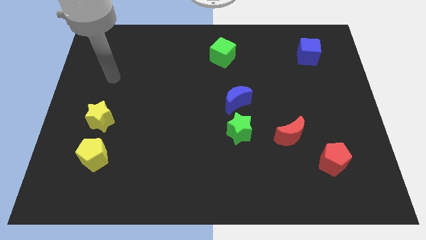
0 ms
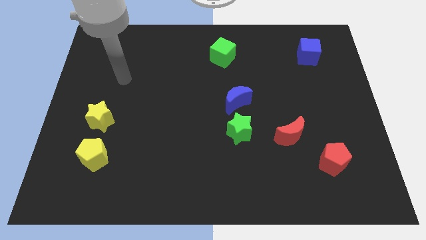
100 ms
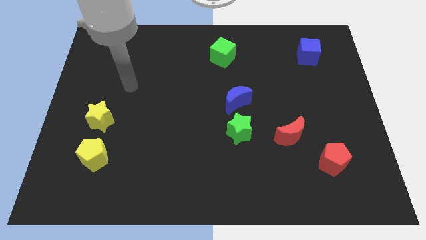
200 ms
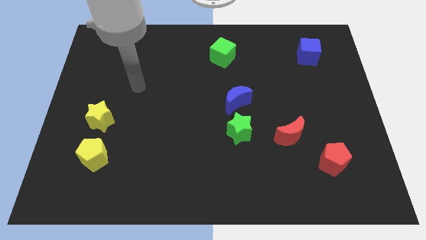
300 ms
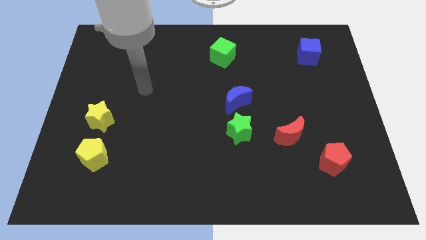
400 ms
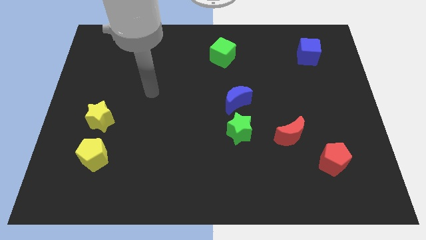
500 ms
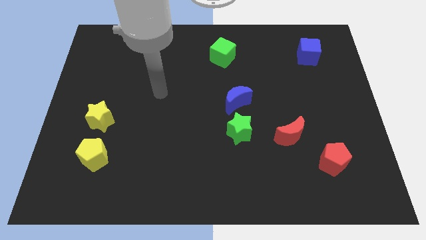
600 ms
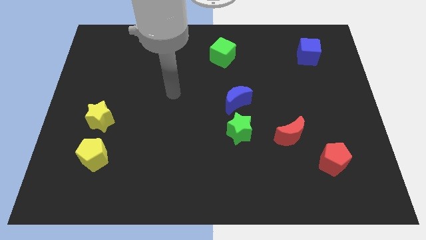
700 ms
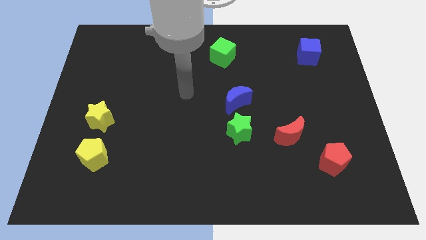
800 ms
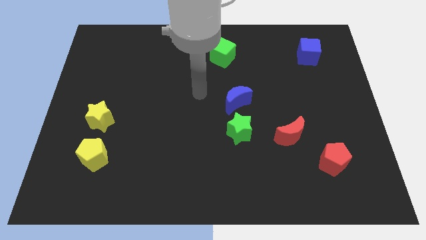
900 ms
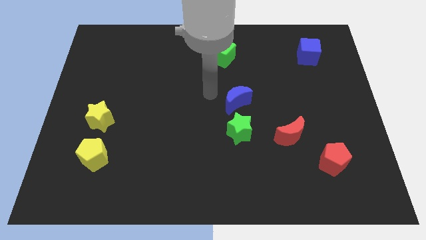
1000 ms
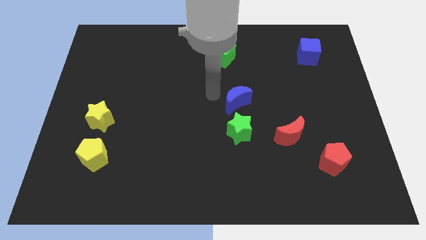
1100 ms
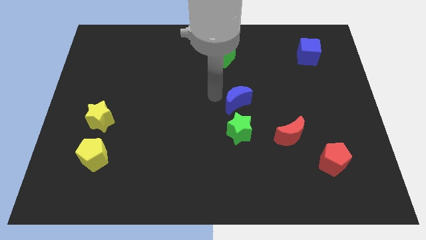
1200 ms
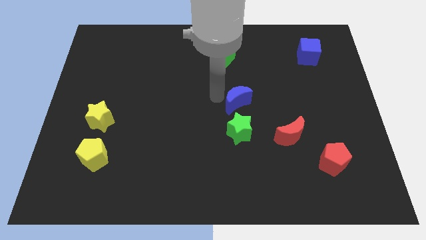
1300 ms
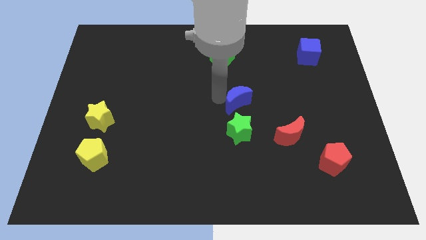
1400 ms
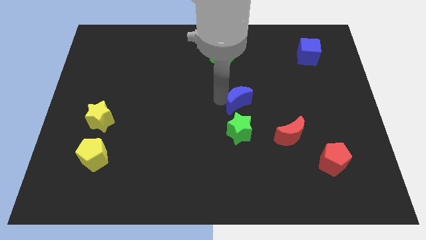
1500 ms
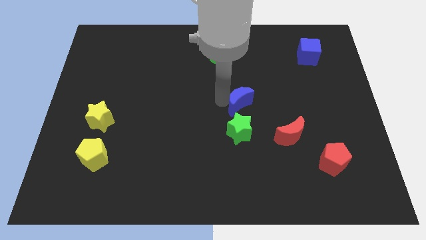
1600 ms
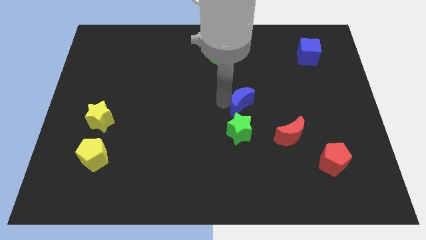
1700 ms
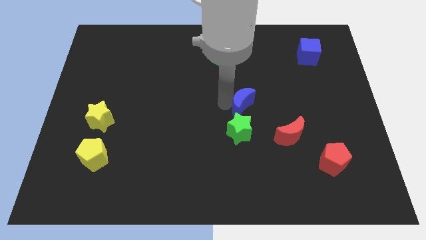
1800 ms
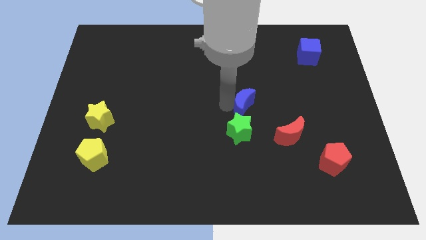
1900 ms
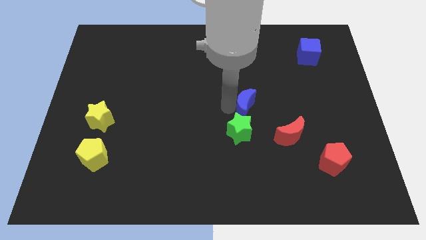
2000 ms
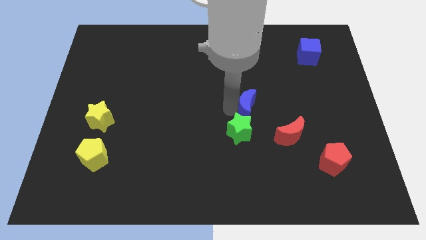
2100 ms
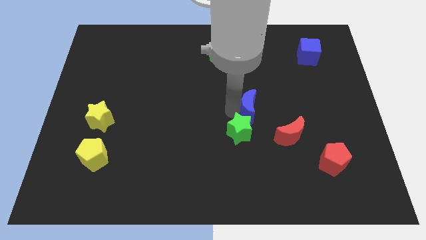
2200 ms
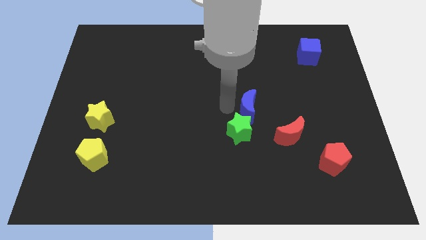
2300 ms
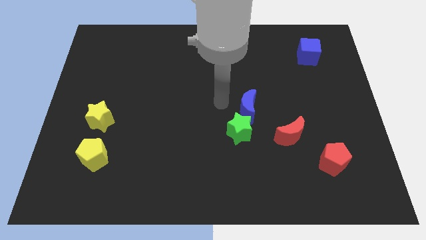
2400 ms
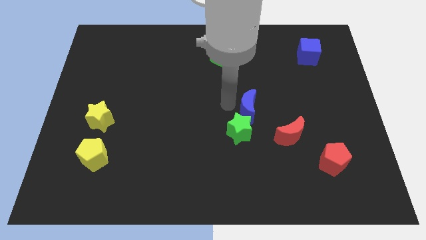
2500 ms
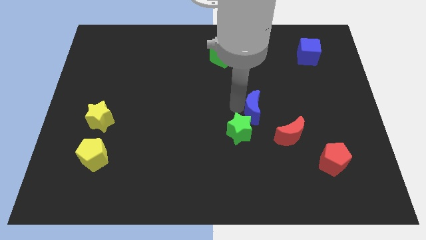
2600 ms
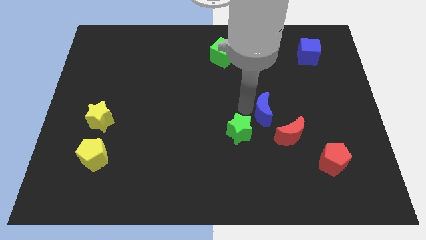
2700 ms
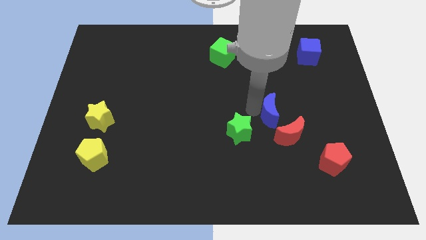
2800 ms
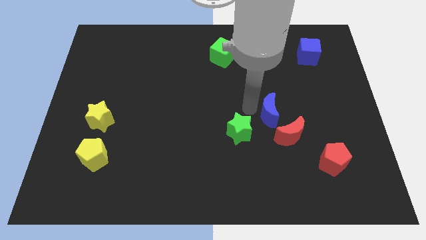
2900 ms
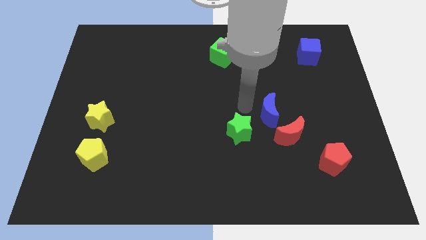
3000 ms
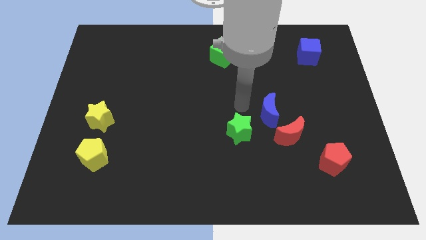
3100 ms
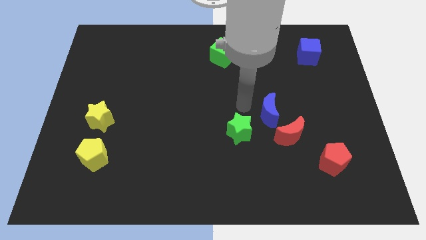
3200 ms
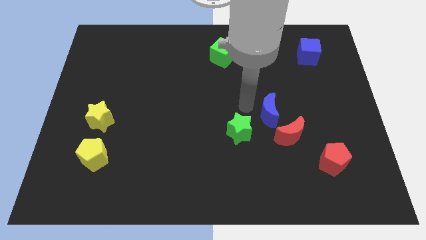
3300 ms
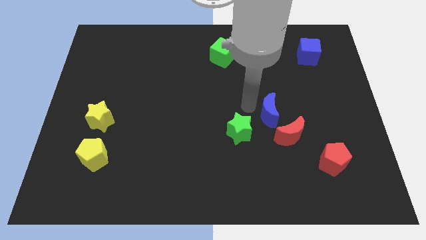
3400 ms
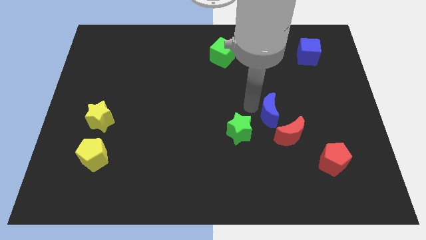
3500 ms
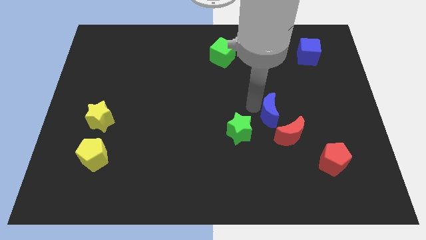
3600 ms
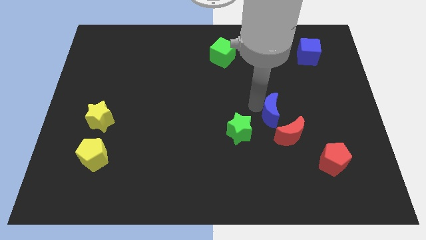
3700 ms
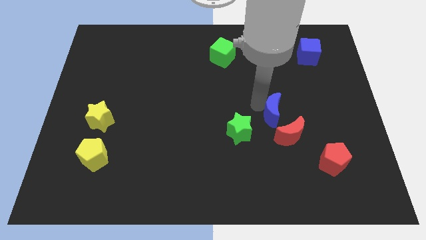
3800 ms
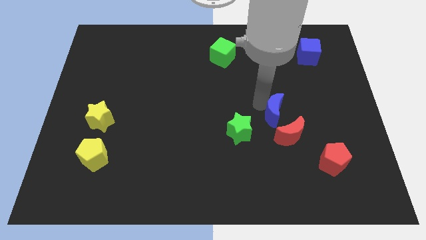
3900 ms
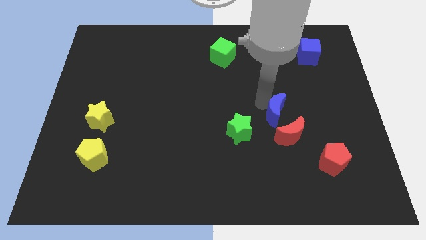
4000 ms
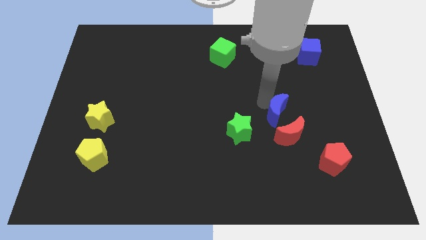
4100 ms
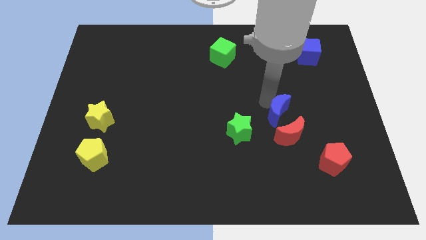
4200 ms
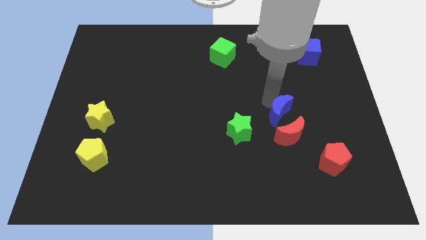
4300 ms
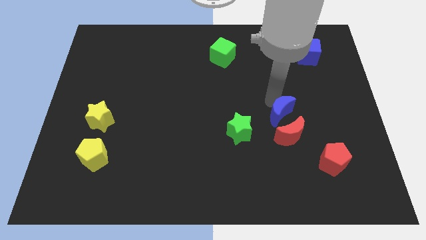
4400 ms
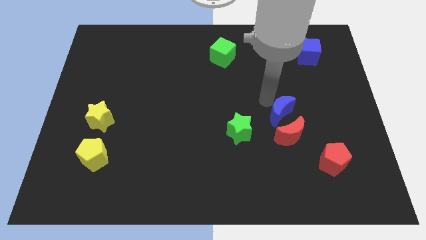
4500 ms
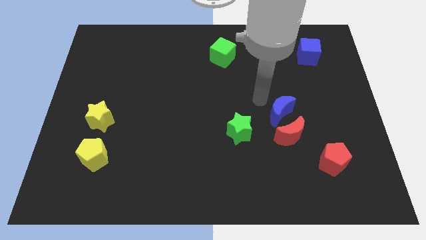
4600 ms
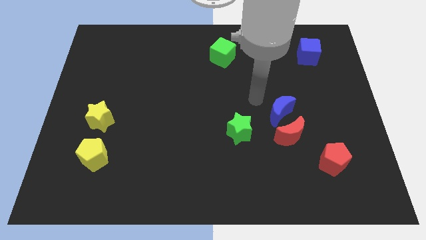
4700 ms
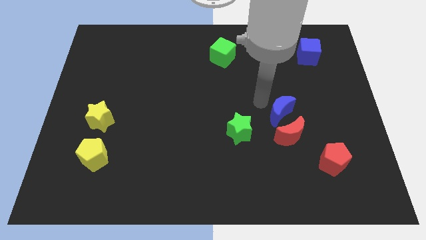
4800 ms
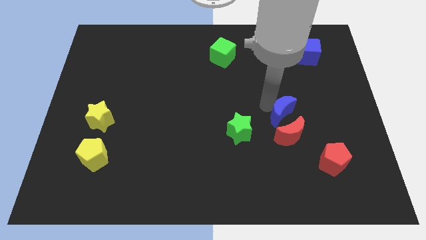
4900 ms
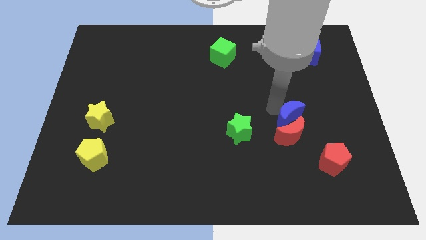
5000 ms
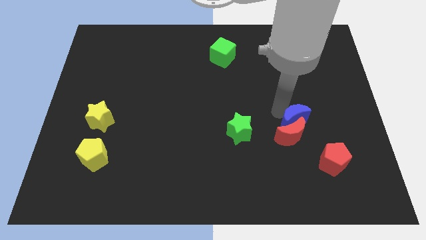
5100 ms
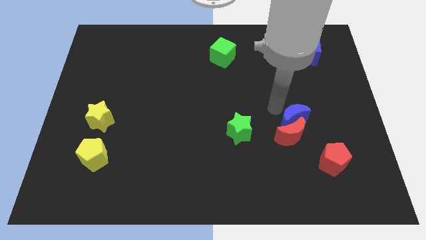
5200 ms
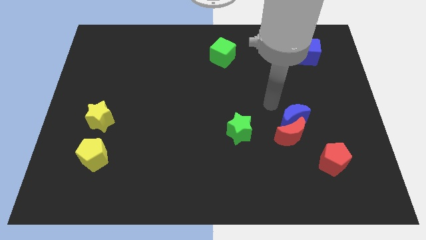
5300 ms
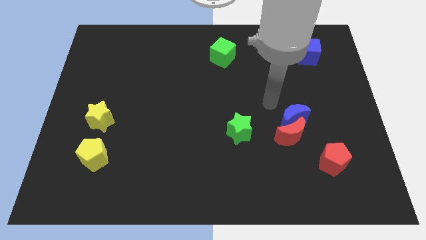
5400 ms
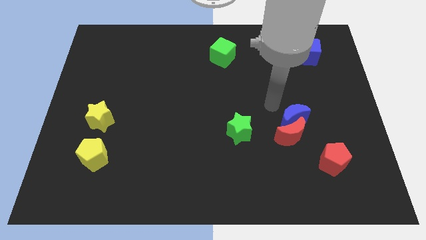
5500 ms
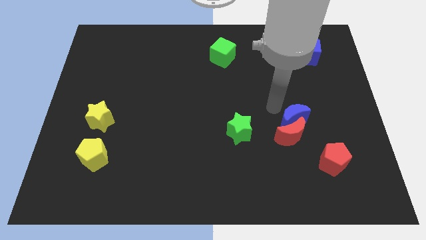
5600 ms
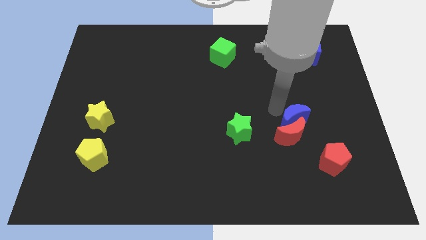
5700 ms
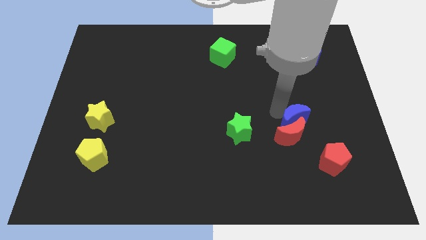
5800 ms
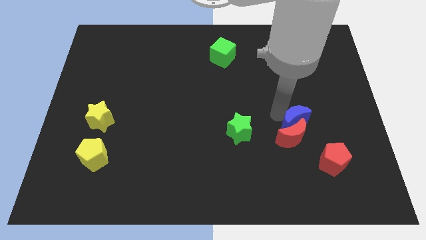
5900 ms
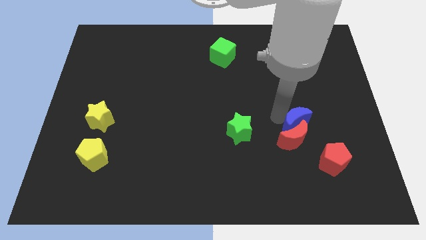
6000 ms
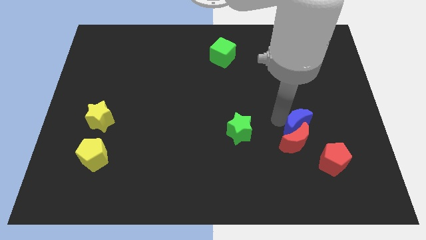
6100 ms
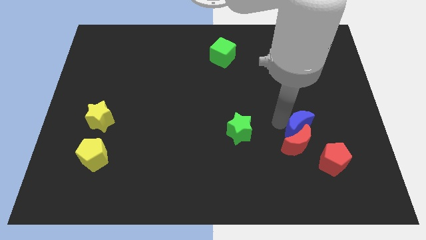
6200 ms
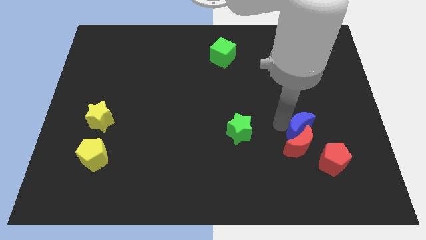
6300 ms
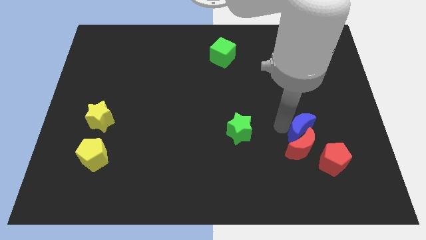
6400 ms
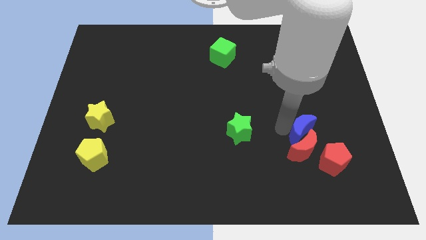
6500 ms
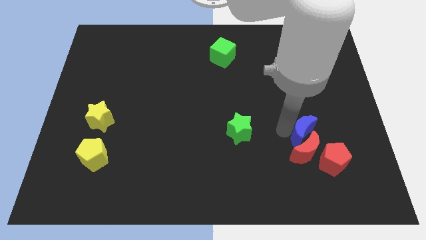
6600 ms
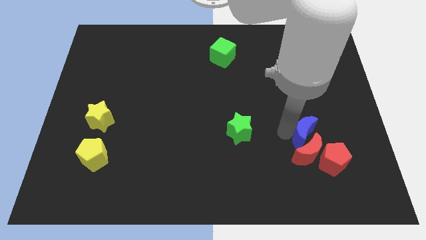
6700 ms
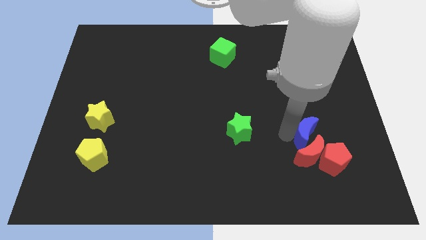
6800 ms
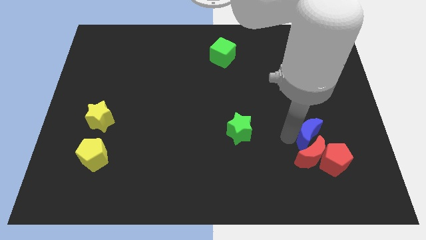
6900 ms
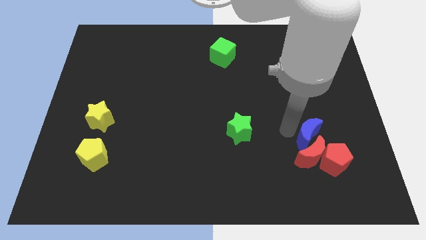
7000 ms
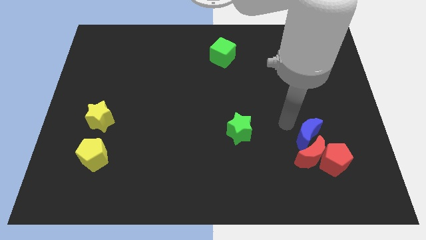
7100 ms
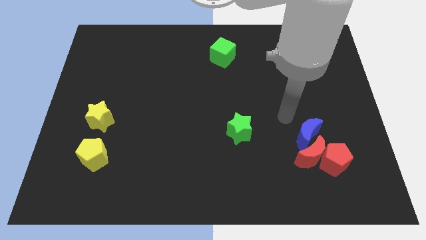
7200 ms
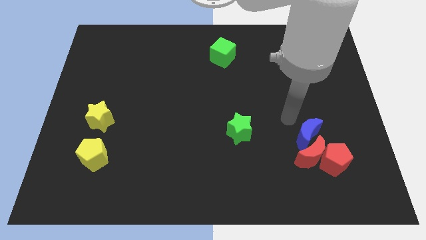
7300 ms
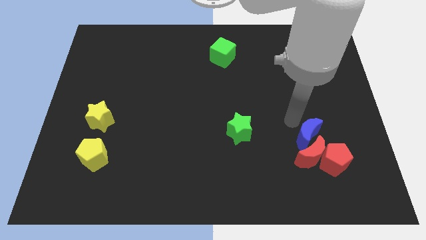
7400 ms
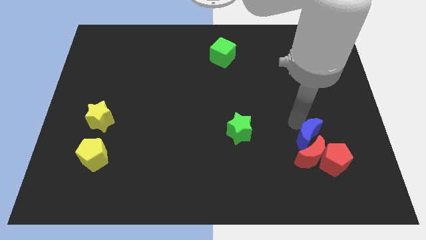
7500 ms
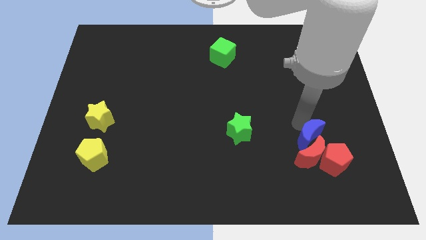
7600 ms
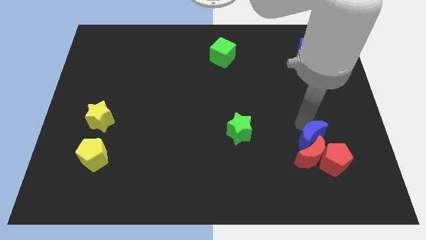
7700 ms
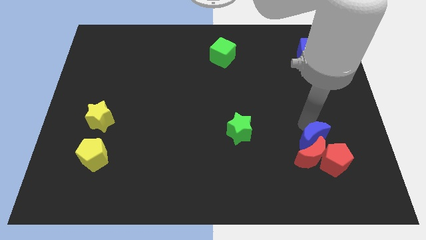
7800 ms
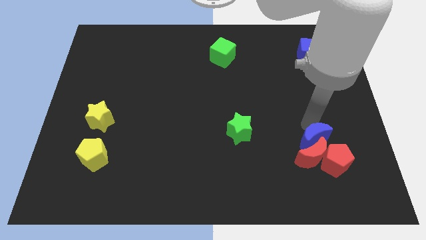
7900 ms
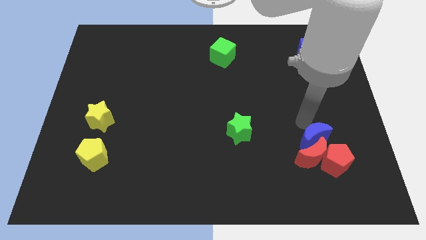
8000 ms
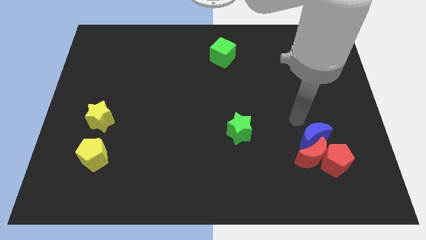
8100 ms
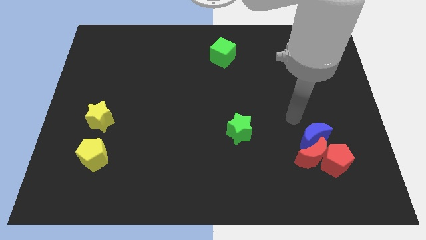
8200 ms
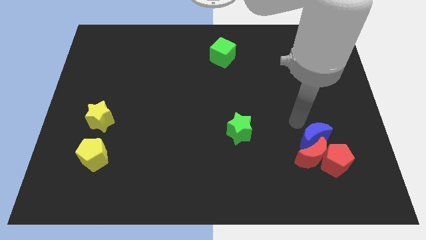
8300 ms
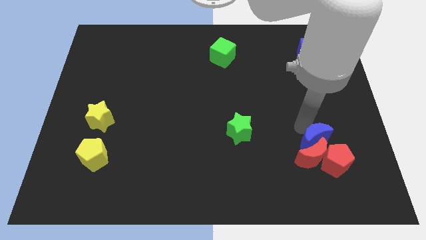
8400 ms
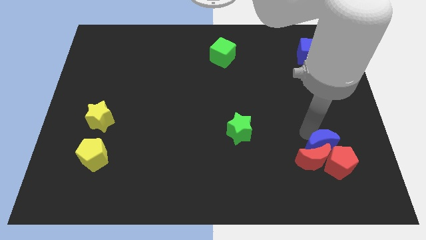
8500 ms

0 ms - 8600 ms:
slide the blue moon next to the red pentagon
